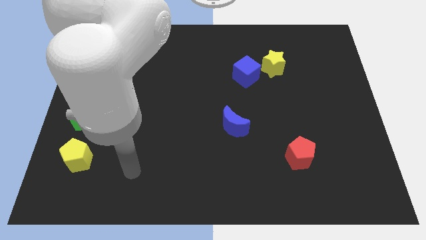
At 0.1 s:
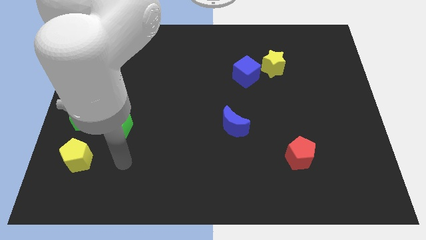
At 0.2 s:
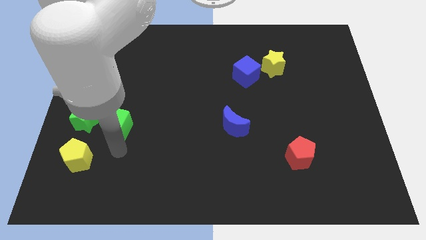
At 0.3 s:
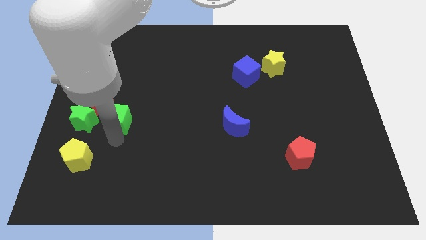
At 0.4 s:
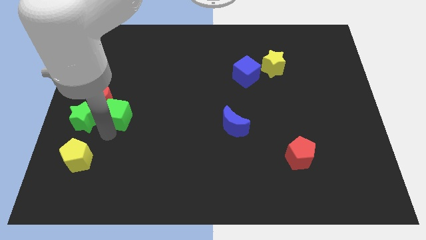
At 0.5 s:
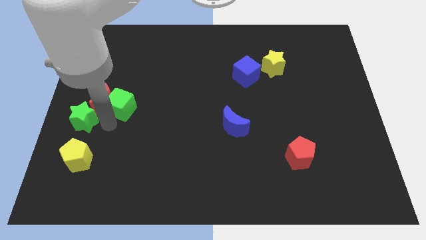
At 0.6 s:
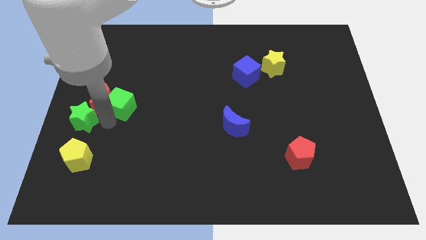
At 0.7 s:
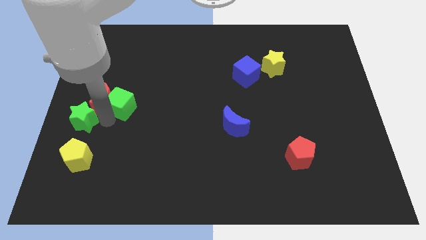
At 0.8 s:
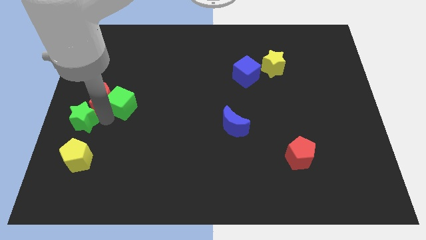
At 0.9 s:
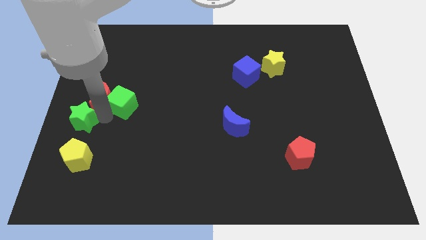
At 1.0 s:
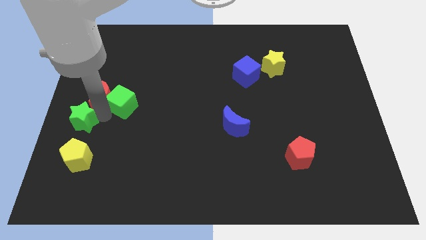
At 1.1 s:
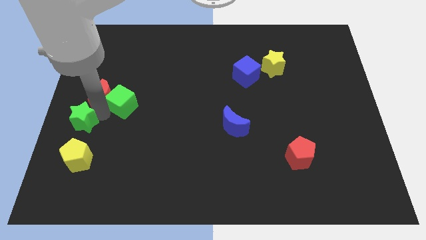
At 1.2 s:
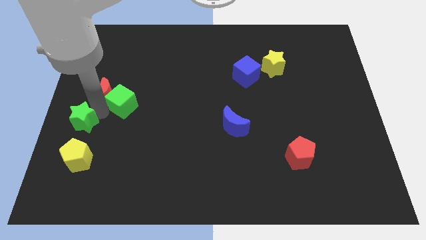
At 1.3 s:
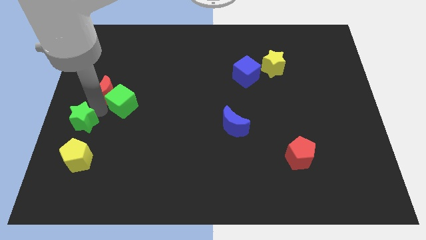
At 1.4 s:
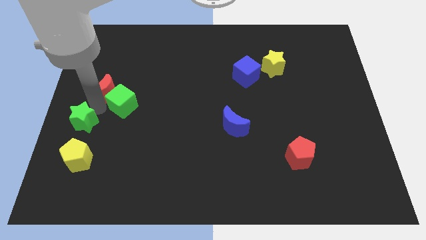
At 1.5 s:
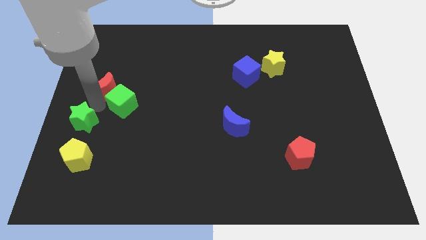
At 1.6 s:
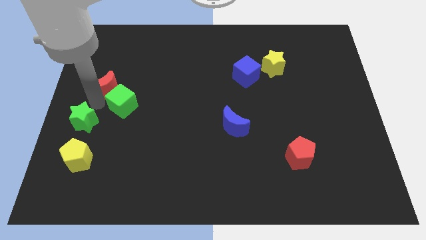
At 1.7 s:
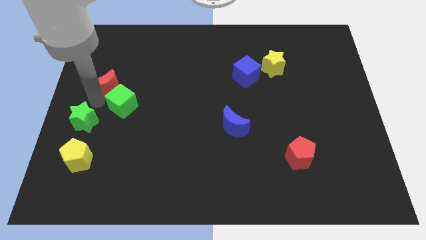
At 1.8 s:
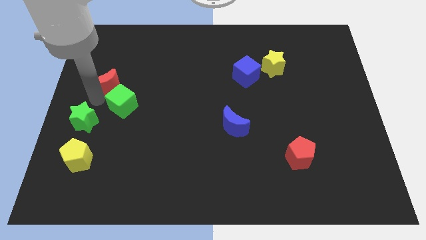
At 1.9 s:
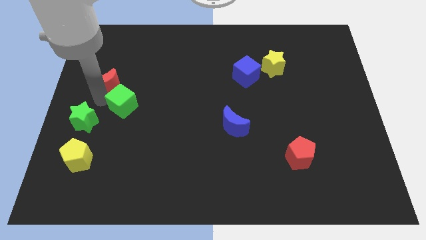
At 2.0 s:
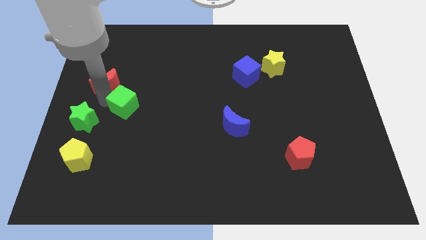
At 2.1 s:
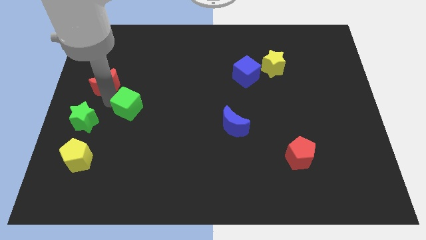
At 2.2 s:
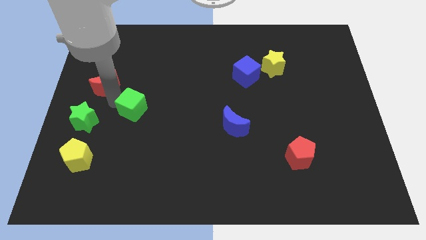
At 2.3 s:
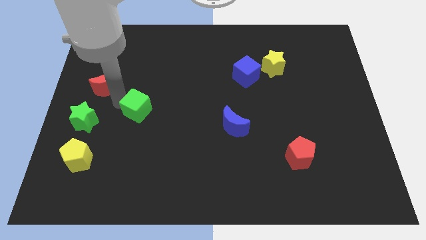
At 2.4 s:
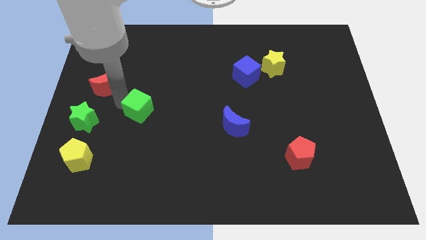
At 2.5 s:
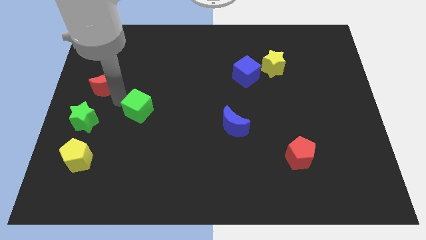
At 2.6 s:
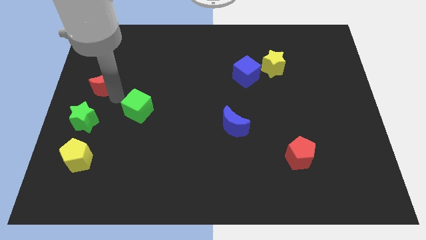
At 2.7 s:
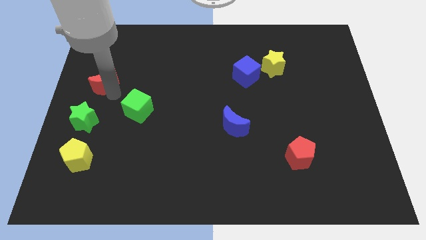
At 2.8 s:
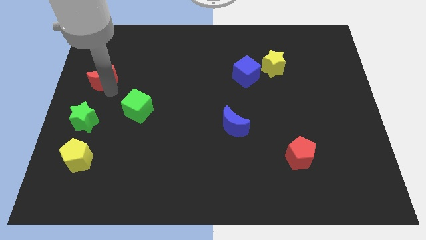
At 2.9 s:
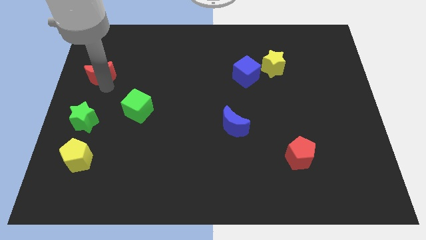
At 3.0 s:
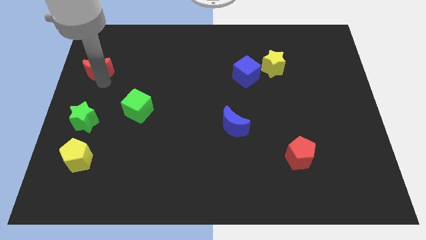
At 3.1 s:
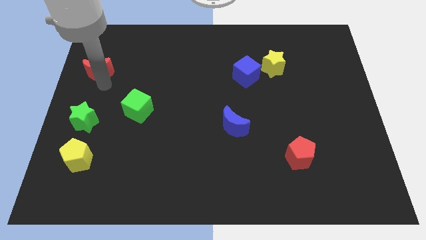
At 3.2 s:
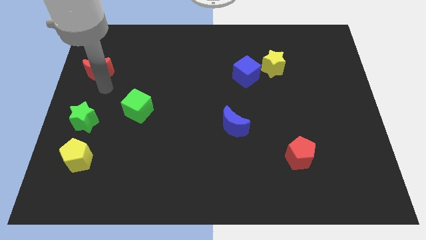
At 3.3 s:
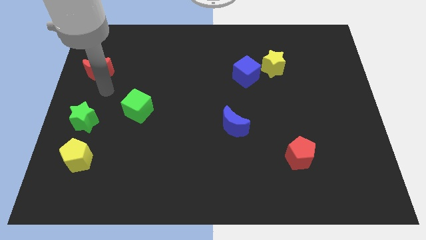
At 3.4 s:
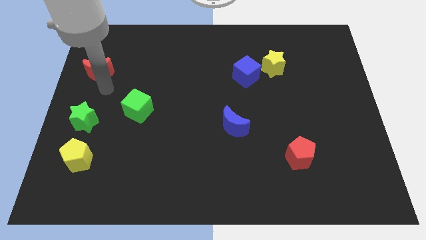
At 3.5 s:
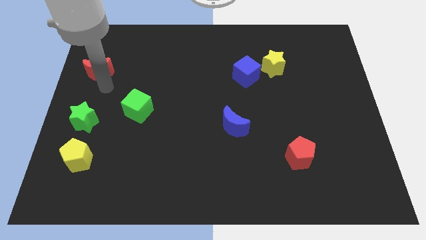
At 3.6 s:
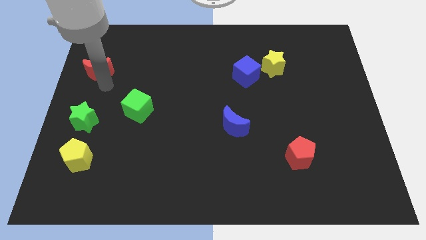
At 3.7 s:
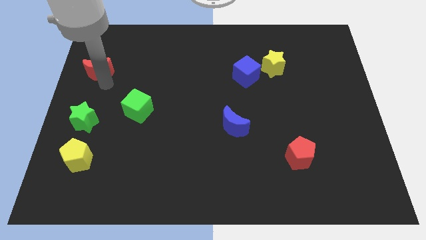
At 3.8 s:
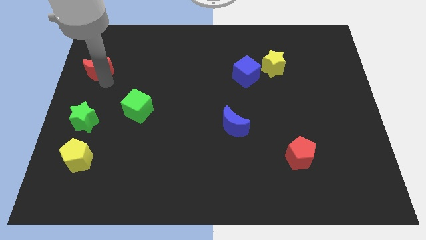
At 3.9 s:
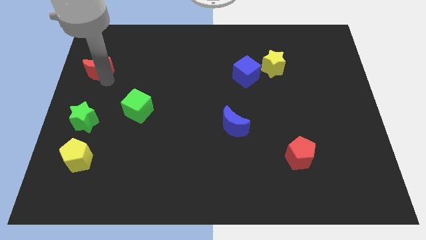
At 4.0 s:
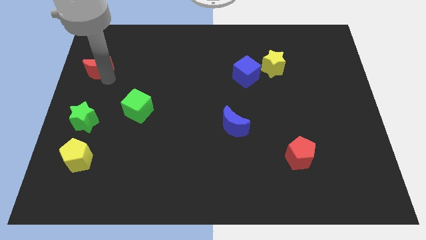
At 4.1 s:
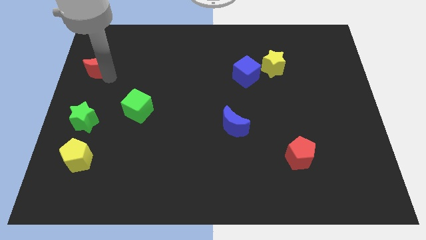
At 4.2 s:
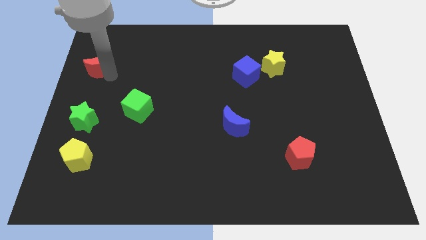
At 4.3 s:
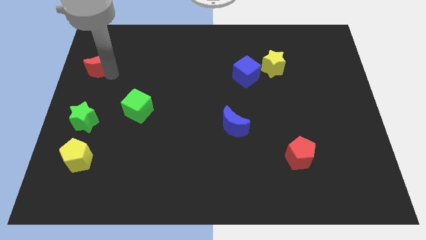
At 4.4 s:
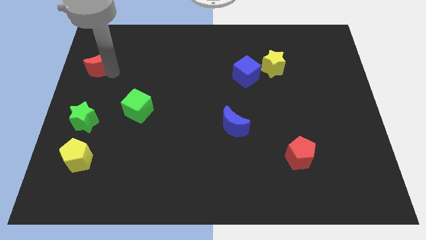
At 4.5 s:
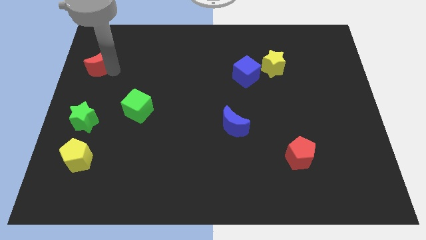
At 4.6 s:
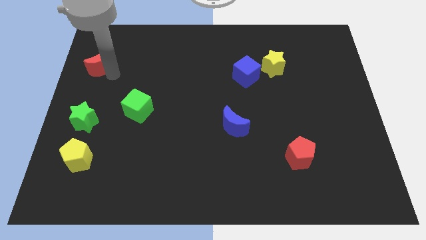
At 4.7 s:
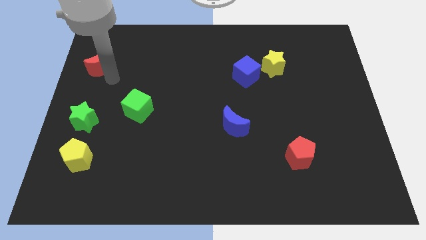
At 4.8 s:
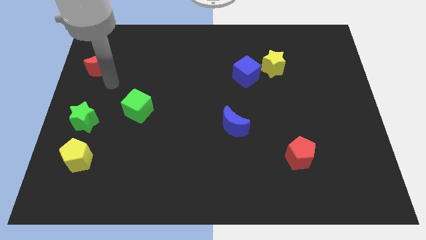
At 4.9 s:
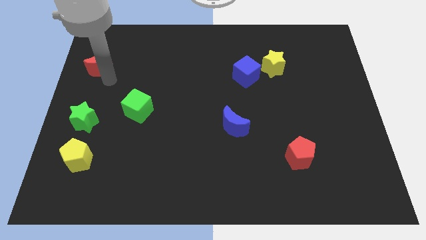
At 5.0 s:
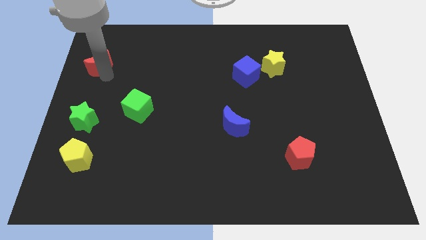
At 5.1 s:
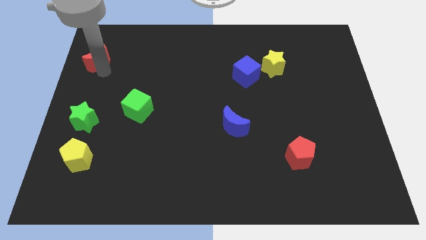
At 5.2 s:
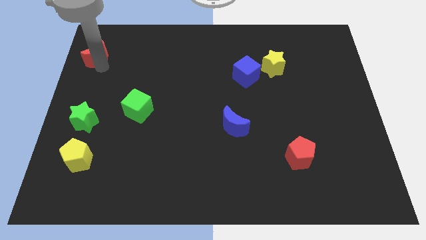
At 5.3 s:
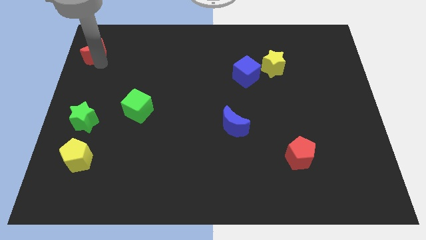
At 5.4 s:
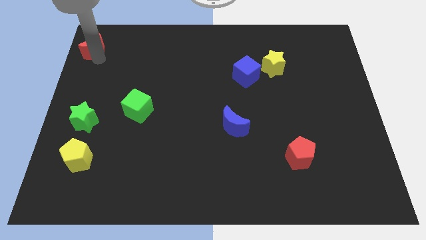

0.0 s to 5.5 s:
push the red moon to the top left corner
